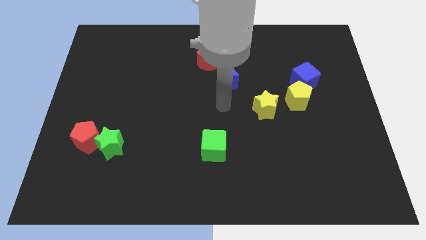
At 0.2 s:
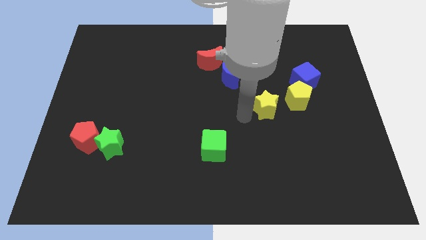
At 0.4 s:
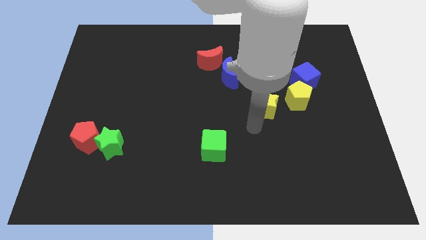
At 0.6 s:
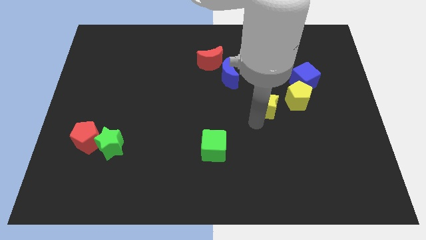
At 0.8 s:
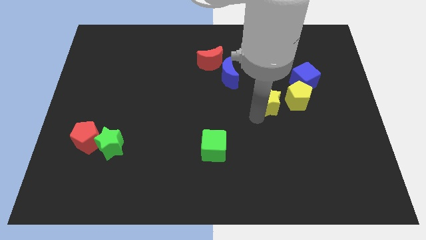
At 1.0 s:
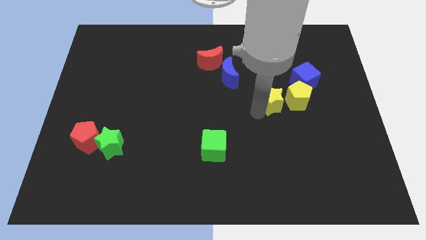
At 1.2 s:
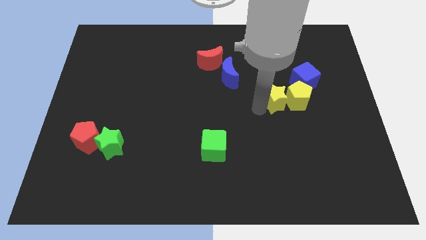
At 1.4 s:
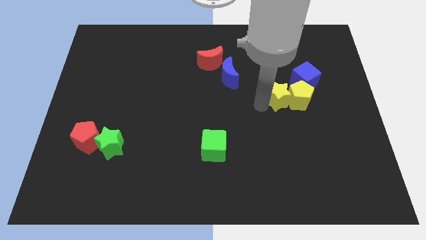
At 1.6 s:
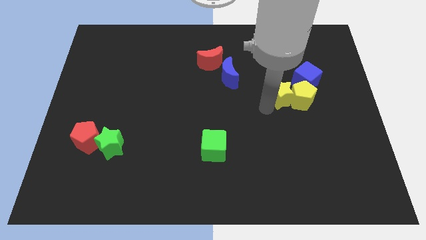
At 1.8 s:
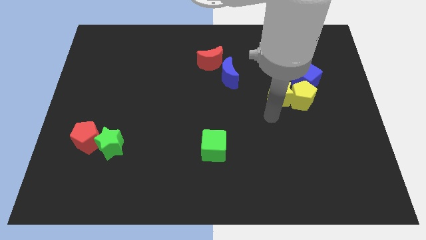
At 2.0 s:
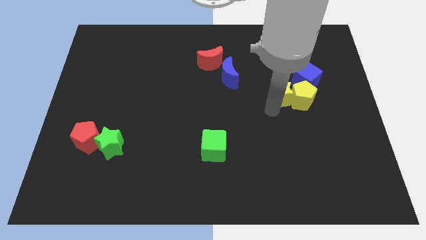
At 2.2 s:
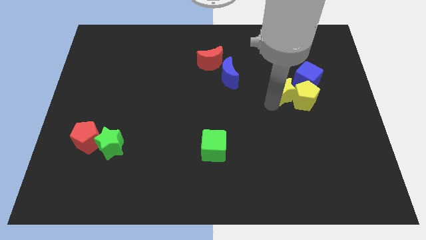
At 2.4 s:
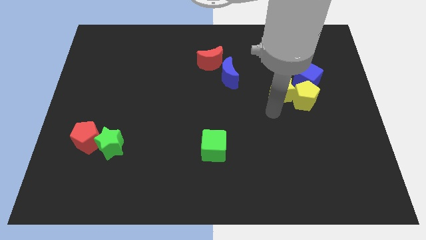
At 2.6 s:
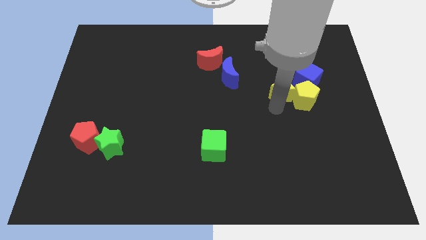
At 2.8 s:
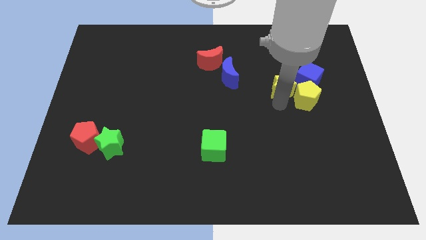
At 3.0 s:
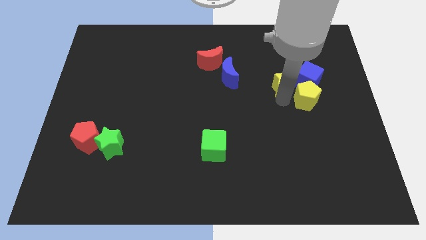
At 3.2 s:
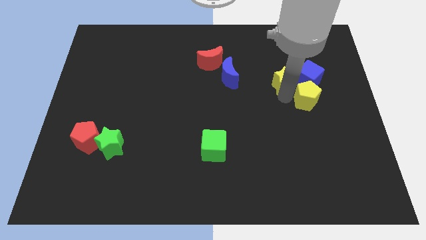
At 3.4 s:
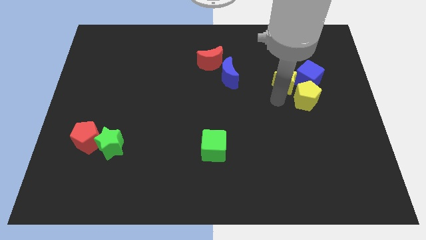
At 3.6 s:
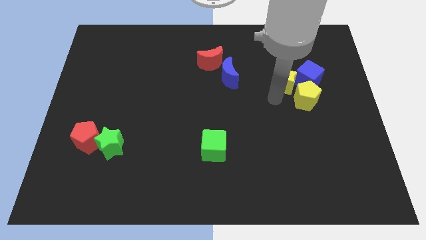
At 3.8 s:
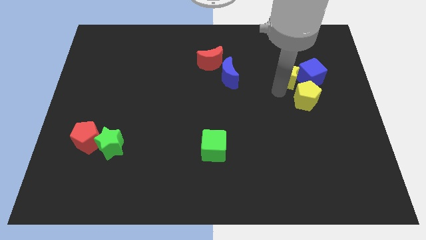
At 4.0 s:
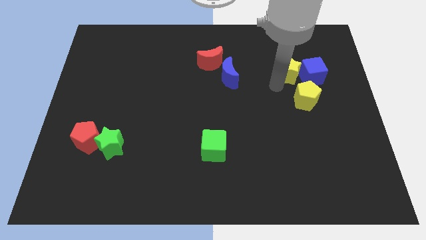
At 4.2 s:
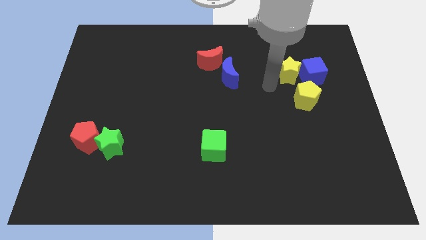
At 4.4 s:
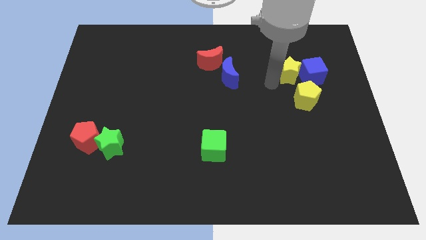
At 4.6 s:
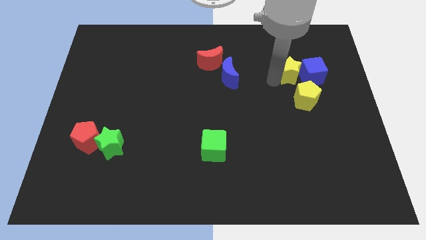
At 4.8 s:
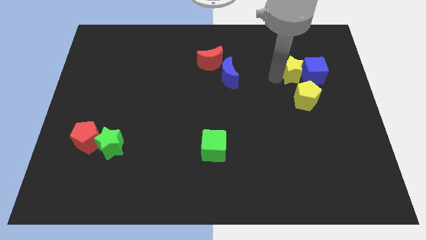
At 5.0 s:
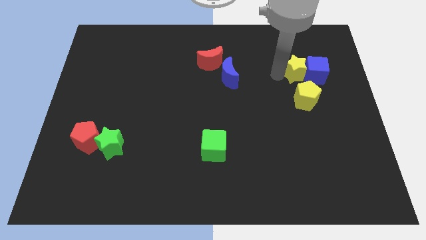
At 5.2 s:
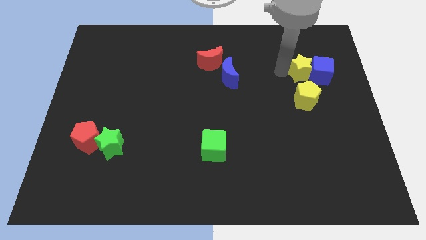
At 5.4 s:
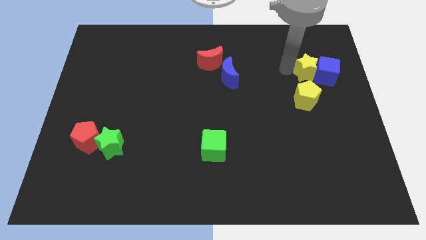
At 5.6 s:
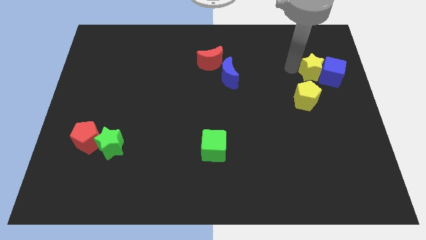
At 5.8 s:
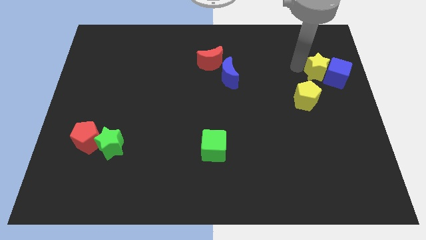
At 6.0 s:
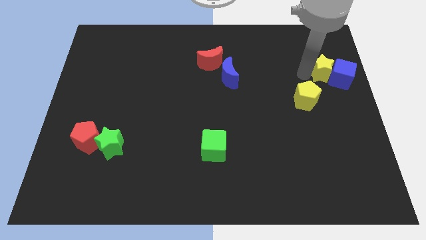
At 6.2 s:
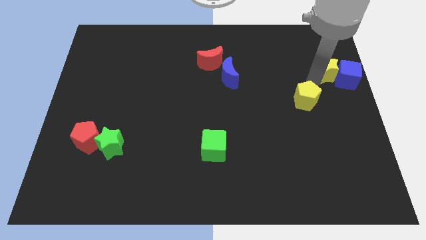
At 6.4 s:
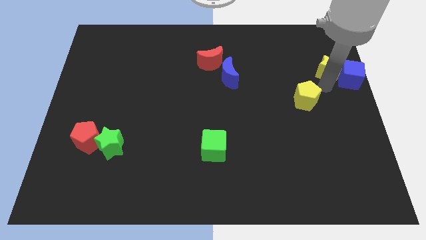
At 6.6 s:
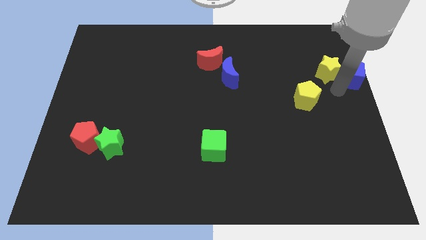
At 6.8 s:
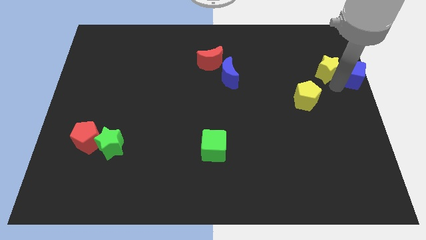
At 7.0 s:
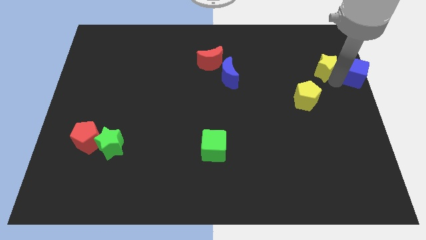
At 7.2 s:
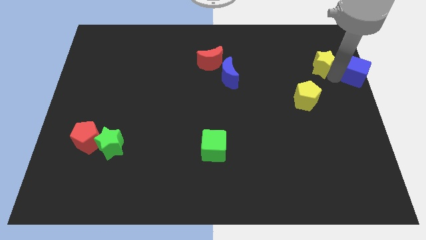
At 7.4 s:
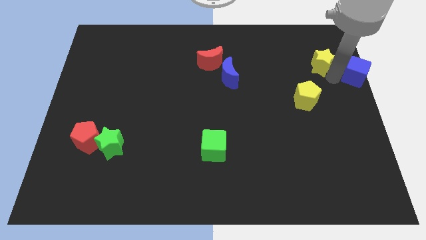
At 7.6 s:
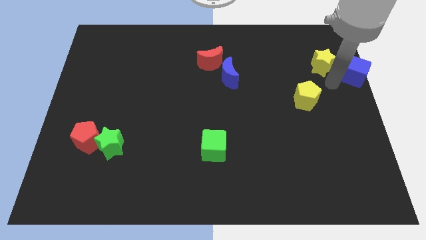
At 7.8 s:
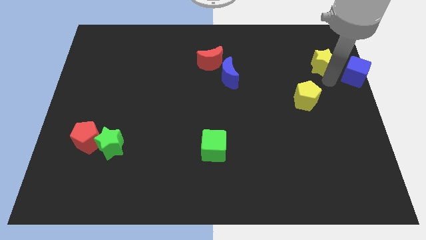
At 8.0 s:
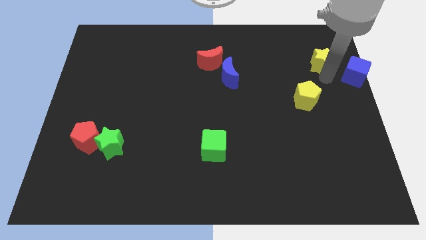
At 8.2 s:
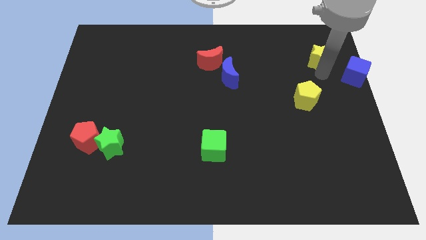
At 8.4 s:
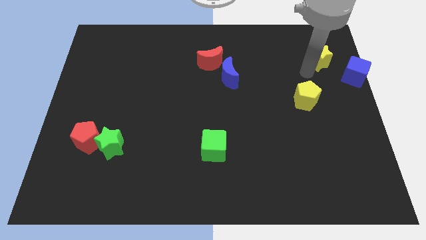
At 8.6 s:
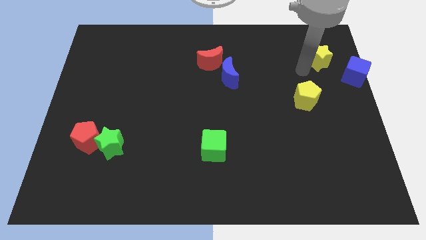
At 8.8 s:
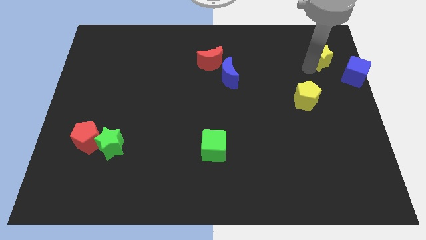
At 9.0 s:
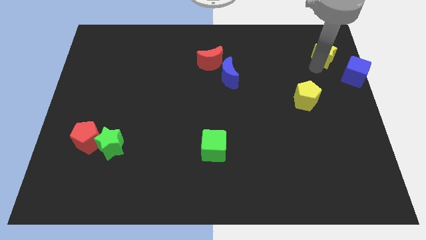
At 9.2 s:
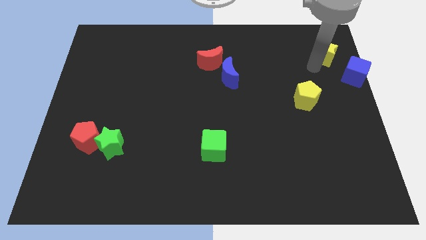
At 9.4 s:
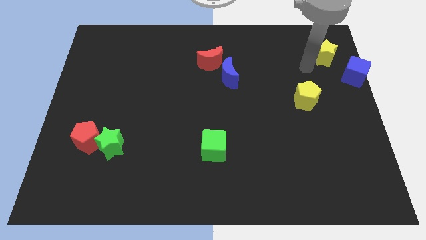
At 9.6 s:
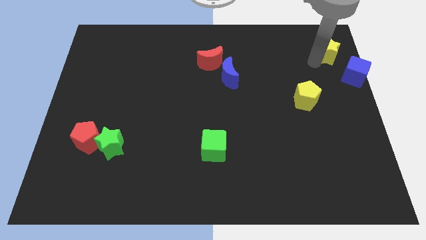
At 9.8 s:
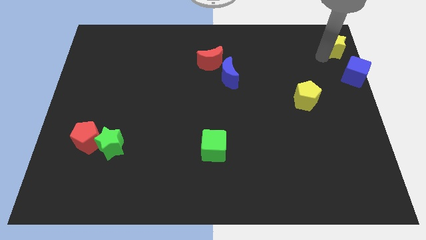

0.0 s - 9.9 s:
push the yellow star to the top right corner

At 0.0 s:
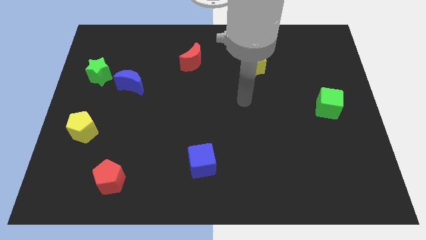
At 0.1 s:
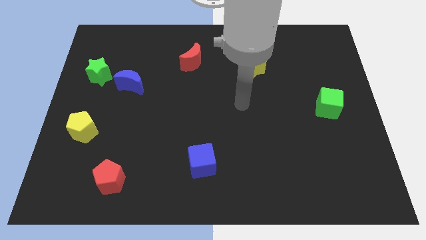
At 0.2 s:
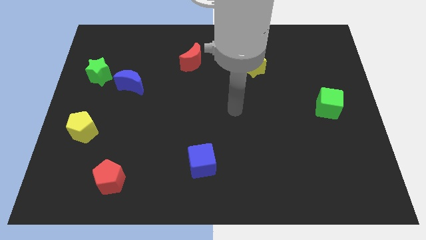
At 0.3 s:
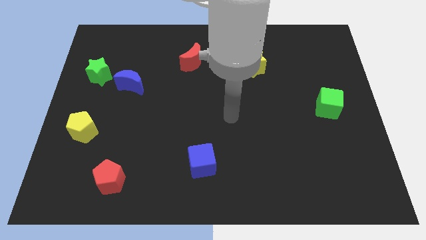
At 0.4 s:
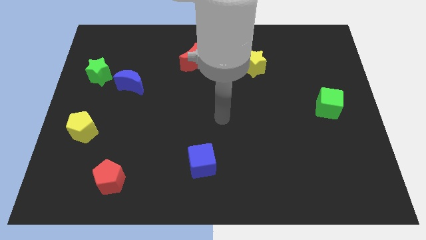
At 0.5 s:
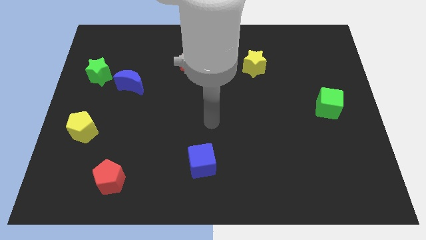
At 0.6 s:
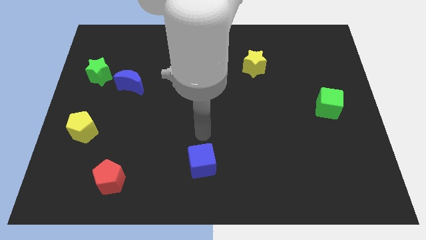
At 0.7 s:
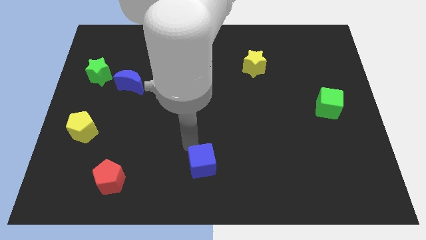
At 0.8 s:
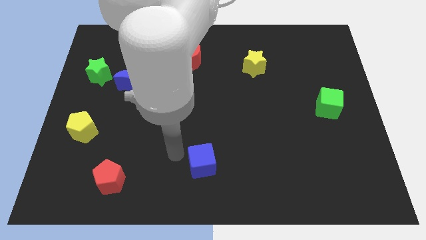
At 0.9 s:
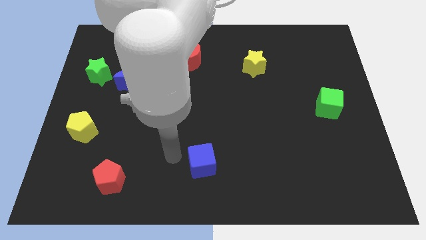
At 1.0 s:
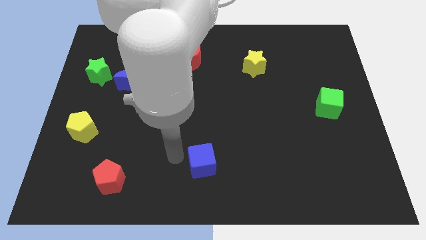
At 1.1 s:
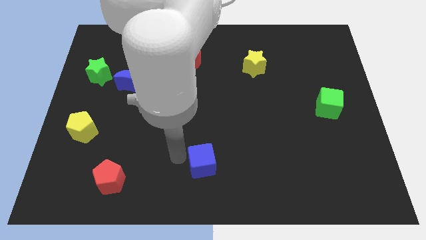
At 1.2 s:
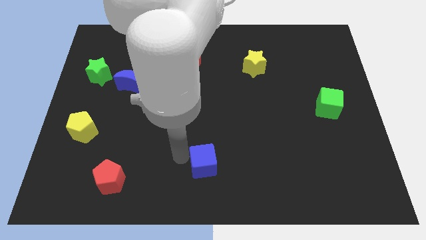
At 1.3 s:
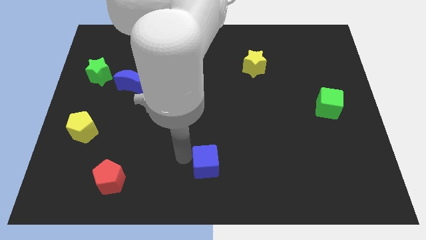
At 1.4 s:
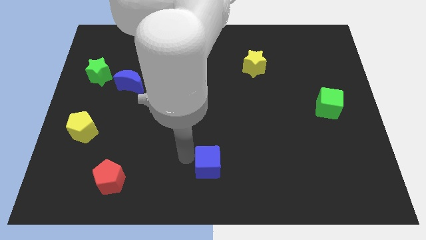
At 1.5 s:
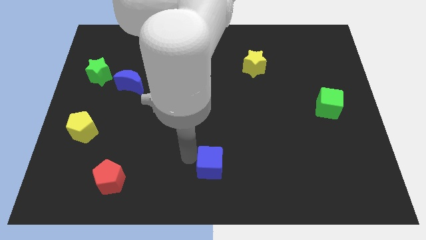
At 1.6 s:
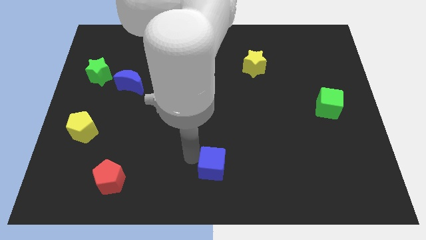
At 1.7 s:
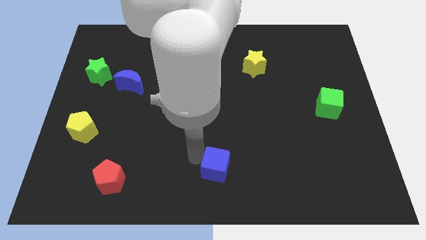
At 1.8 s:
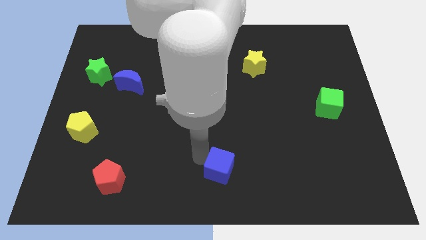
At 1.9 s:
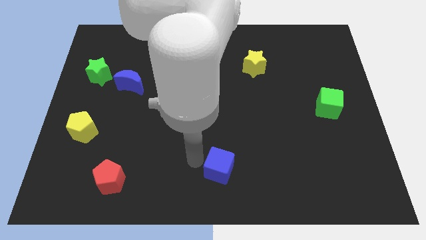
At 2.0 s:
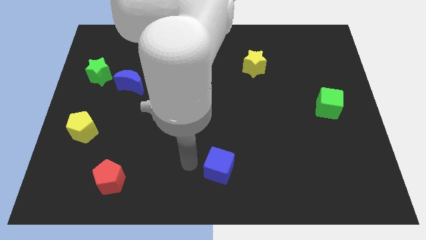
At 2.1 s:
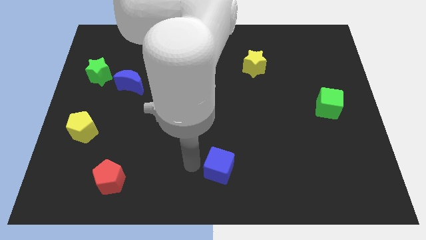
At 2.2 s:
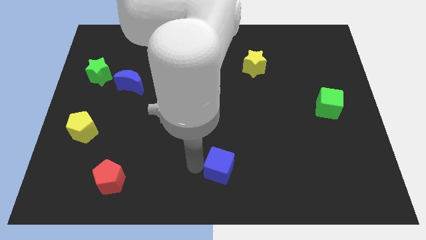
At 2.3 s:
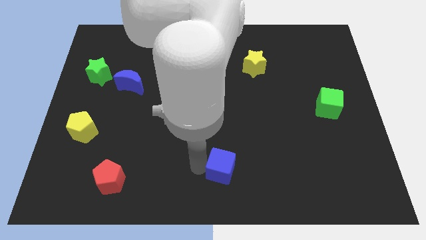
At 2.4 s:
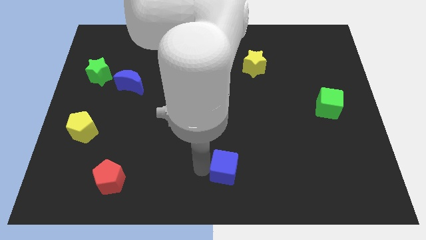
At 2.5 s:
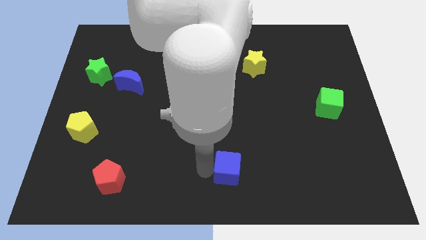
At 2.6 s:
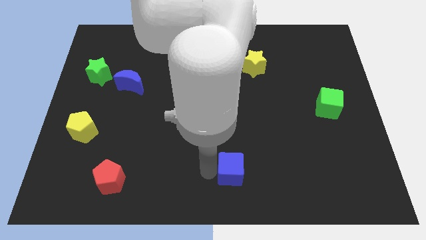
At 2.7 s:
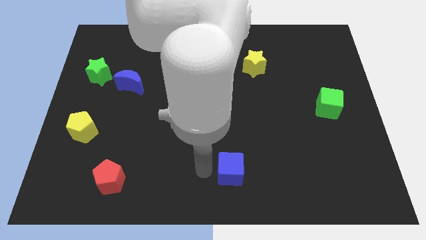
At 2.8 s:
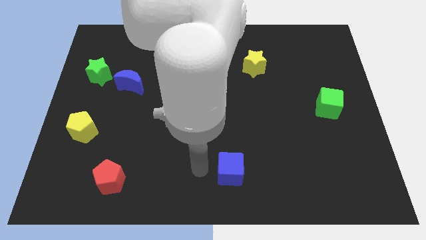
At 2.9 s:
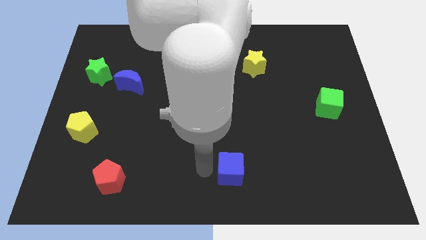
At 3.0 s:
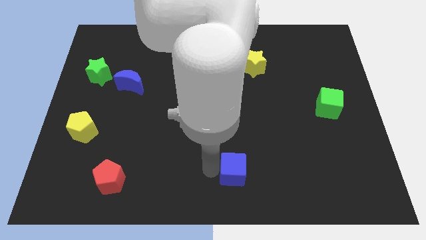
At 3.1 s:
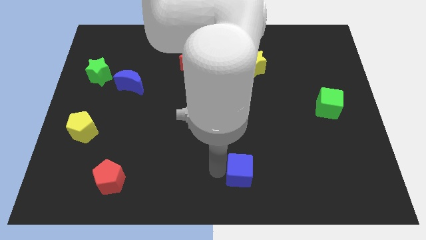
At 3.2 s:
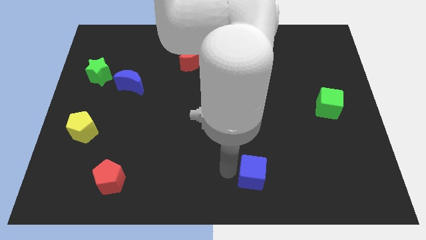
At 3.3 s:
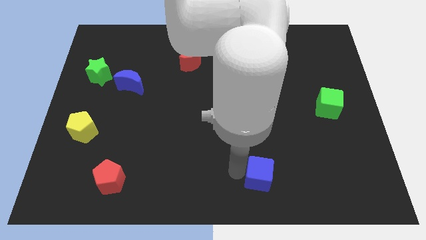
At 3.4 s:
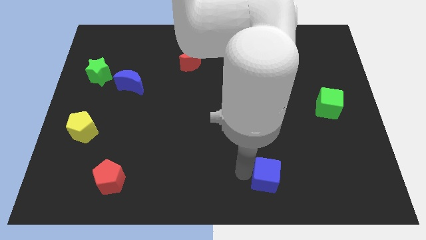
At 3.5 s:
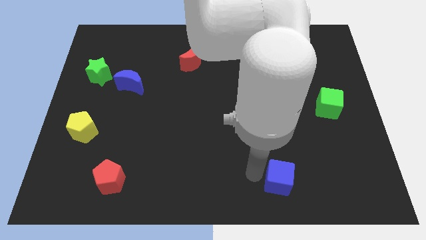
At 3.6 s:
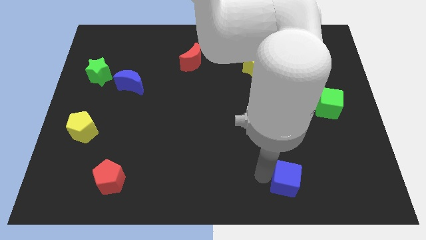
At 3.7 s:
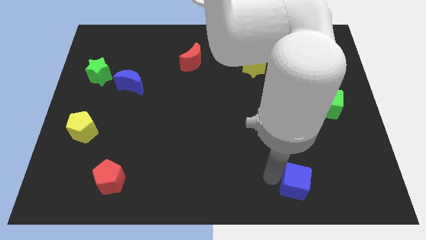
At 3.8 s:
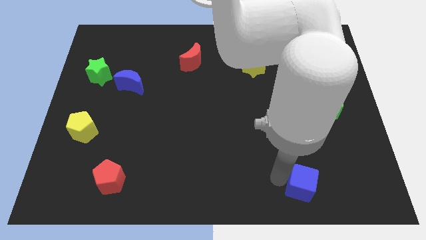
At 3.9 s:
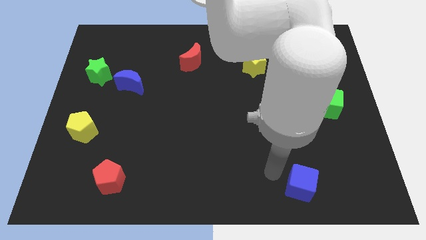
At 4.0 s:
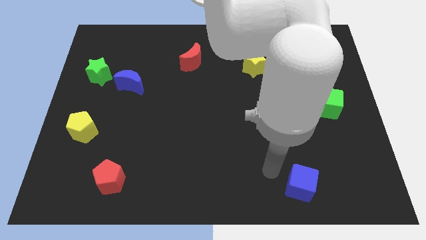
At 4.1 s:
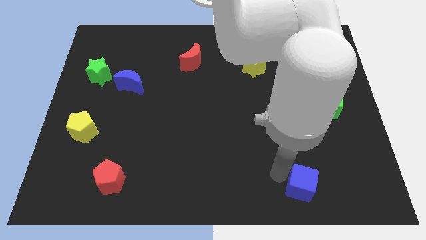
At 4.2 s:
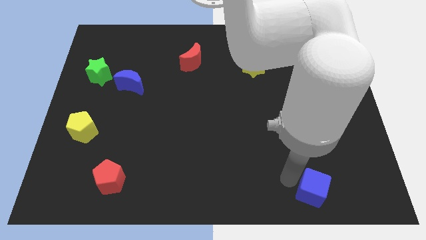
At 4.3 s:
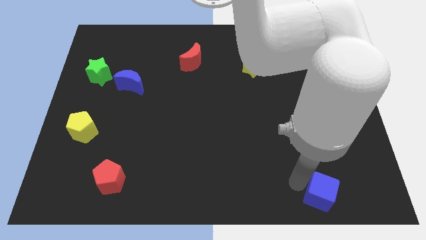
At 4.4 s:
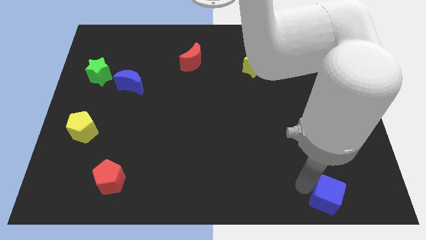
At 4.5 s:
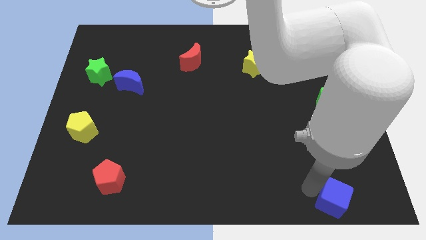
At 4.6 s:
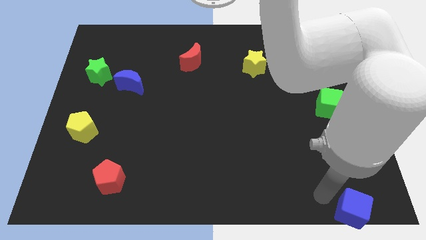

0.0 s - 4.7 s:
move the blue cube to the bottom right
